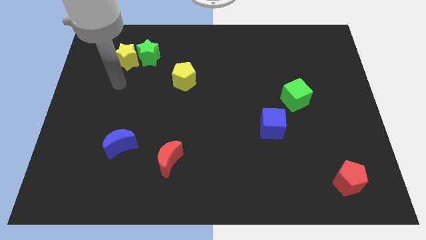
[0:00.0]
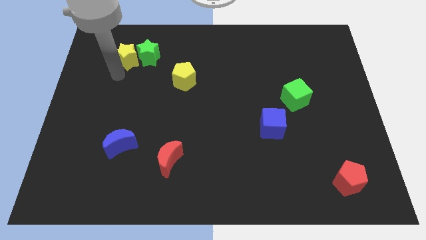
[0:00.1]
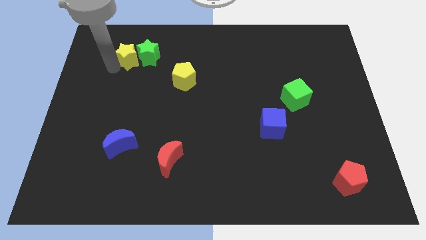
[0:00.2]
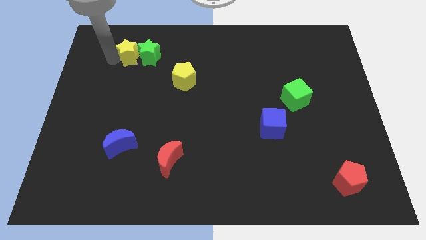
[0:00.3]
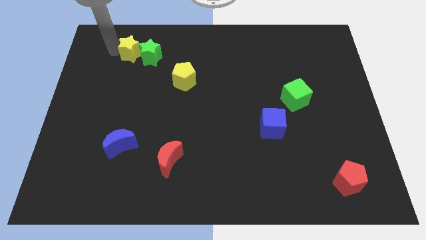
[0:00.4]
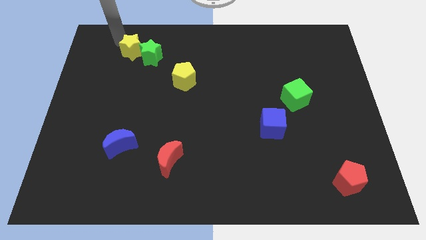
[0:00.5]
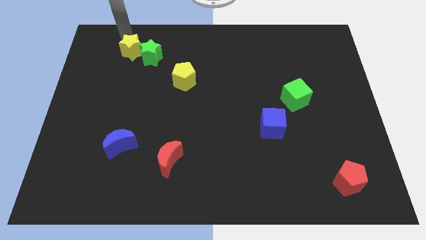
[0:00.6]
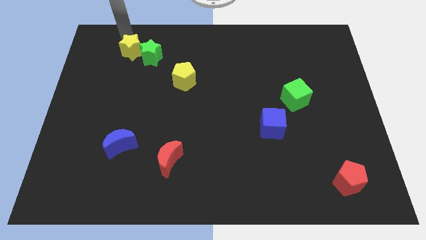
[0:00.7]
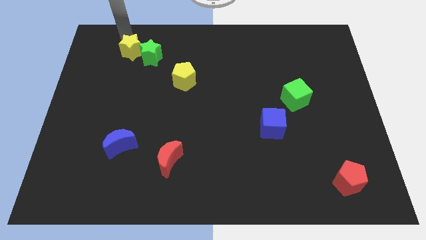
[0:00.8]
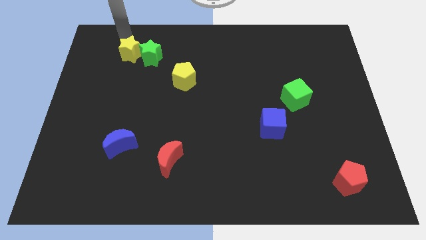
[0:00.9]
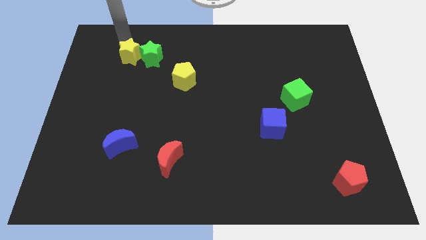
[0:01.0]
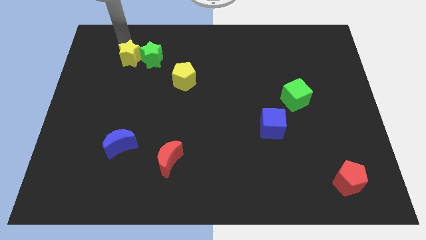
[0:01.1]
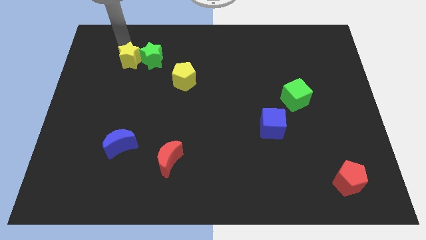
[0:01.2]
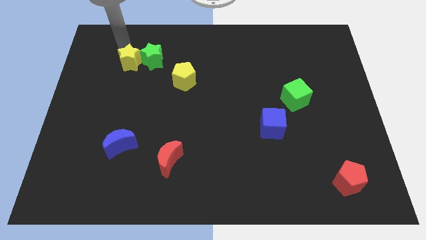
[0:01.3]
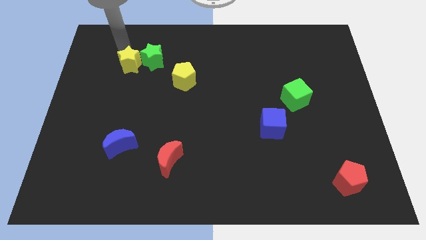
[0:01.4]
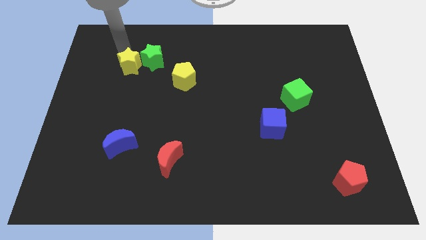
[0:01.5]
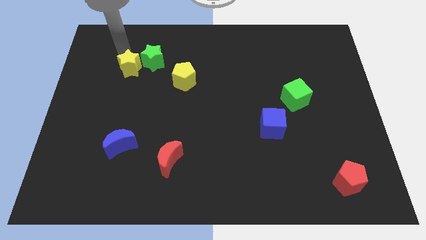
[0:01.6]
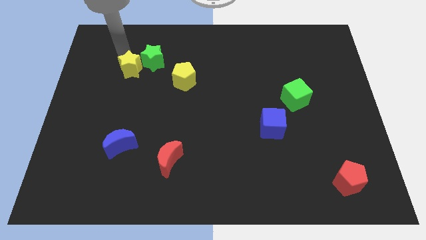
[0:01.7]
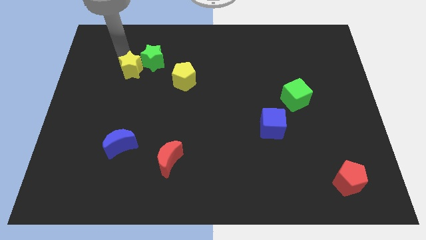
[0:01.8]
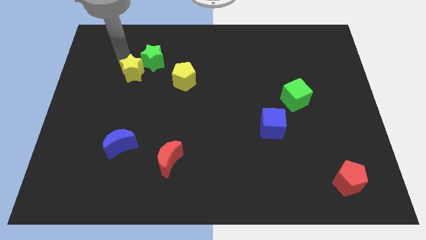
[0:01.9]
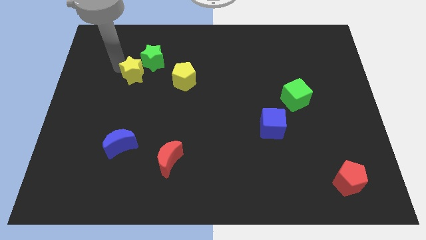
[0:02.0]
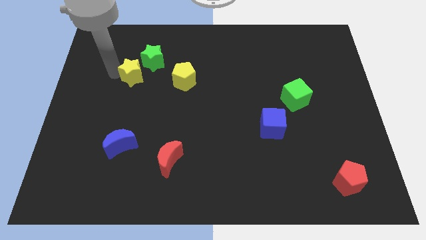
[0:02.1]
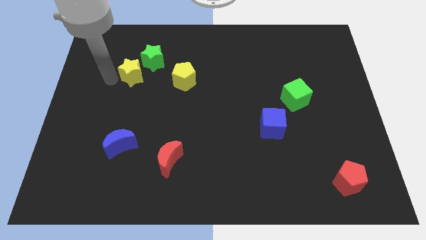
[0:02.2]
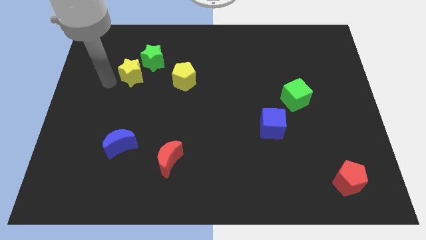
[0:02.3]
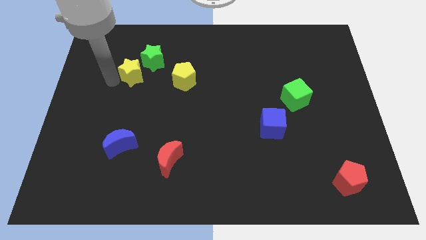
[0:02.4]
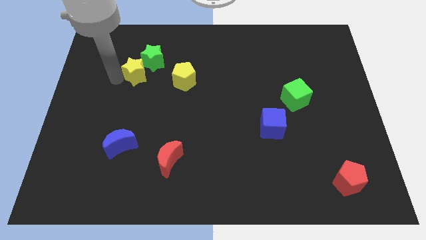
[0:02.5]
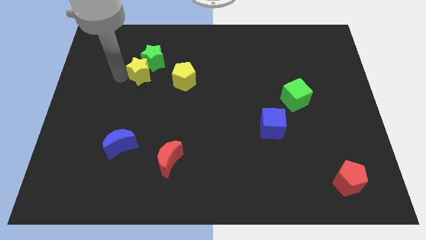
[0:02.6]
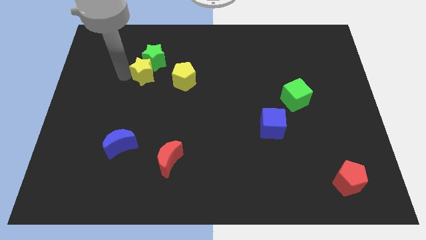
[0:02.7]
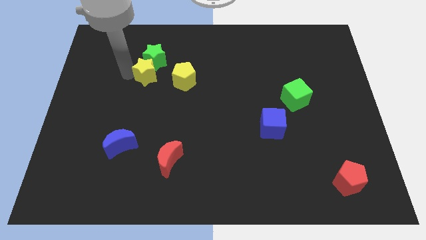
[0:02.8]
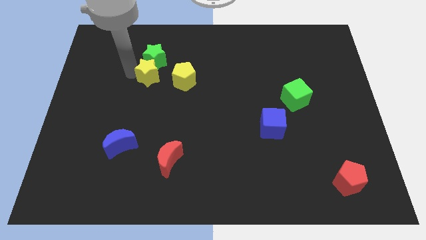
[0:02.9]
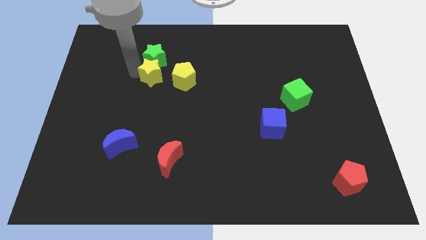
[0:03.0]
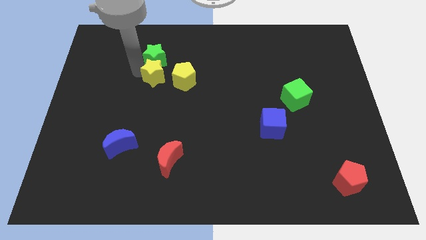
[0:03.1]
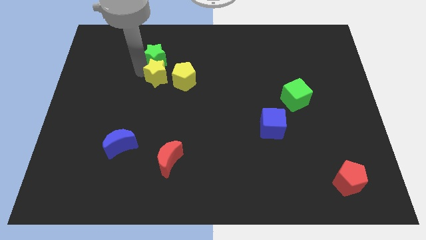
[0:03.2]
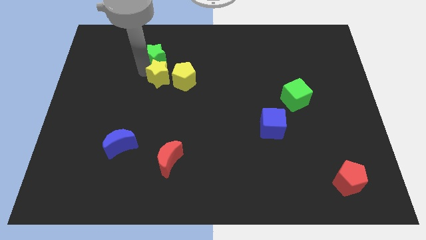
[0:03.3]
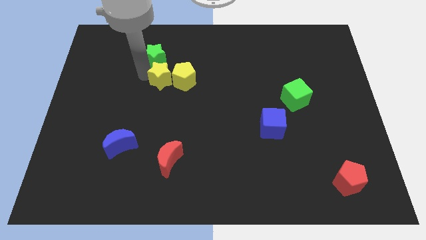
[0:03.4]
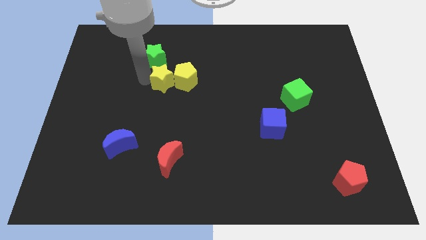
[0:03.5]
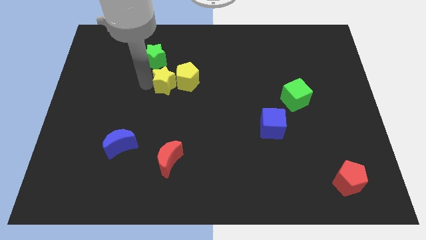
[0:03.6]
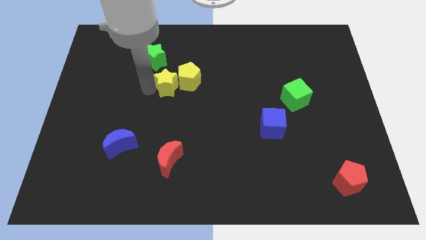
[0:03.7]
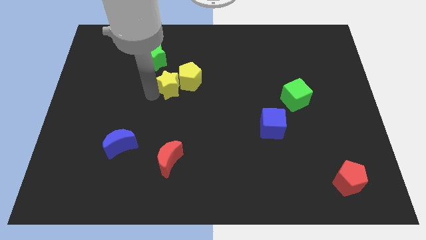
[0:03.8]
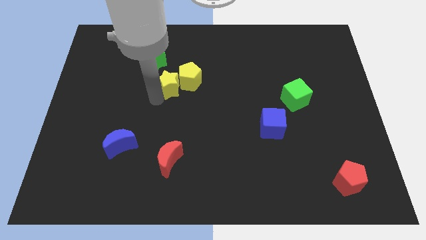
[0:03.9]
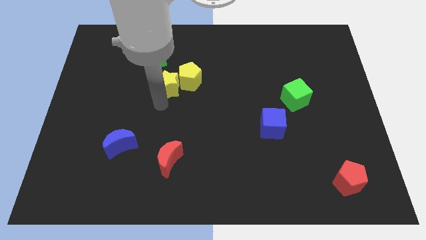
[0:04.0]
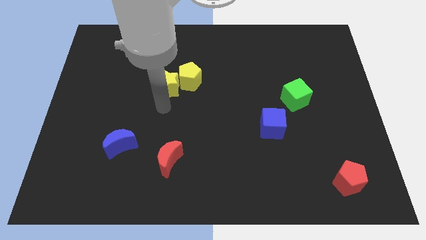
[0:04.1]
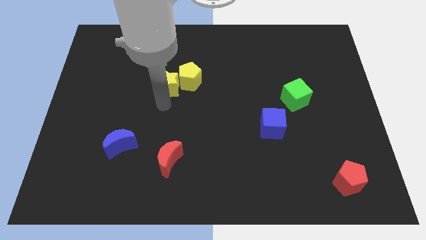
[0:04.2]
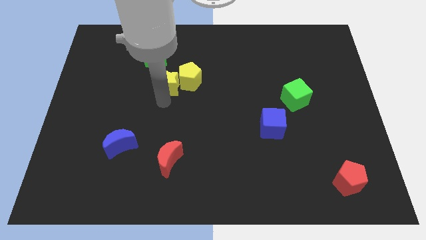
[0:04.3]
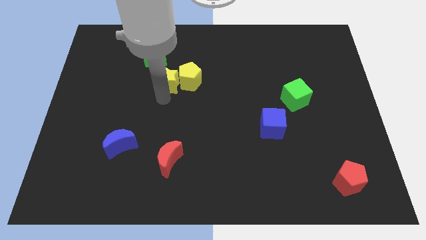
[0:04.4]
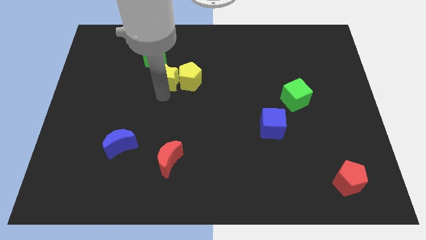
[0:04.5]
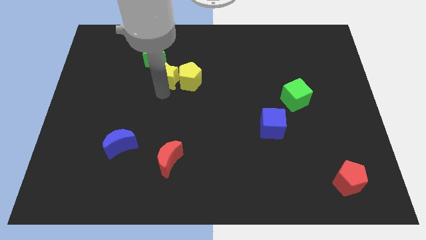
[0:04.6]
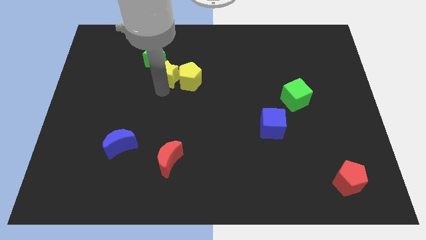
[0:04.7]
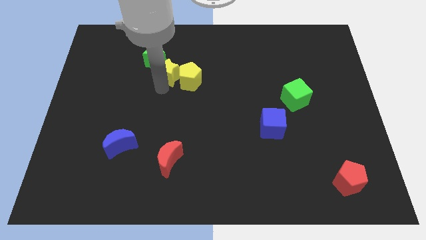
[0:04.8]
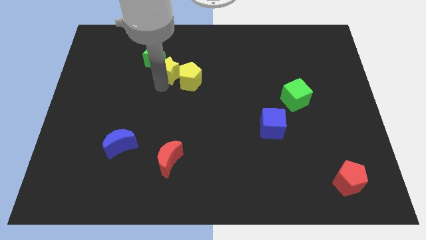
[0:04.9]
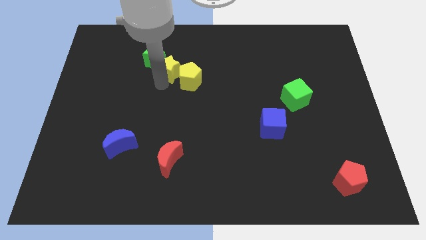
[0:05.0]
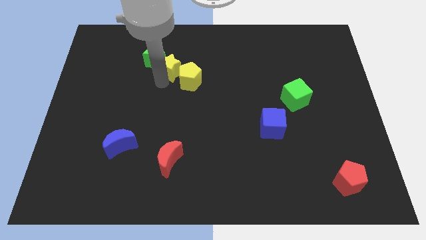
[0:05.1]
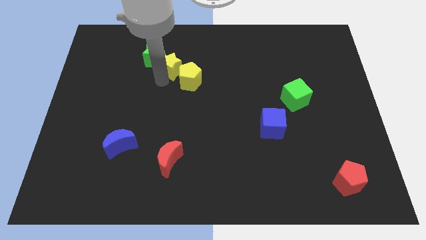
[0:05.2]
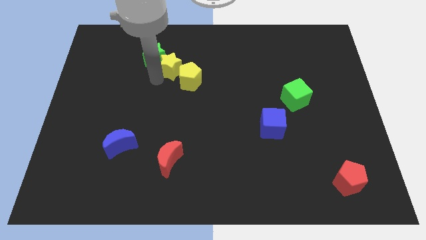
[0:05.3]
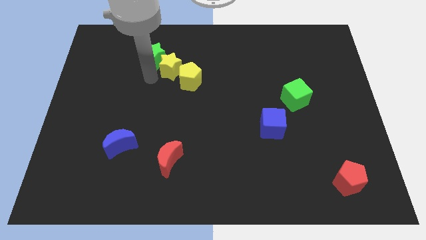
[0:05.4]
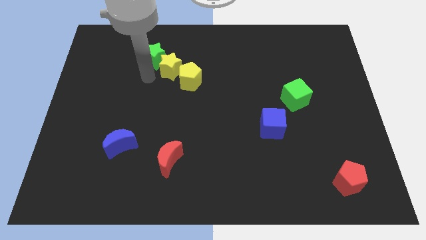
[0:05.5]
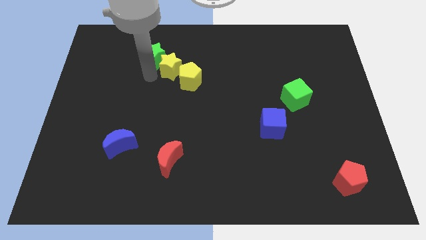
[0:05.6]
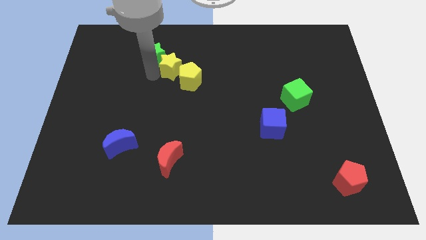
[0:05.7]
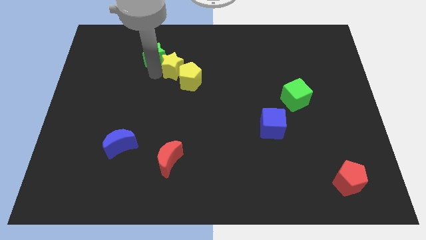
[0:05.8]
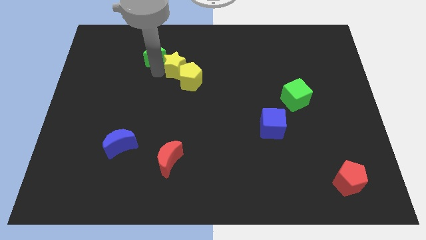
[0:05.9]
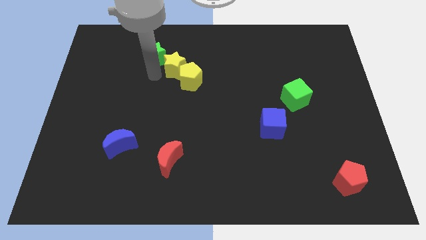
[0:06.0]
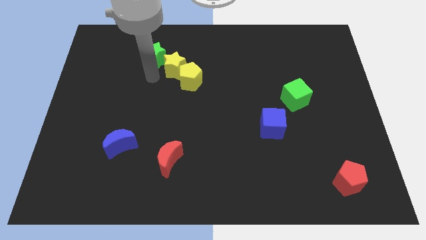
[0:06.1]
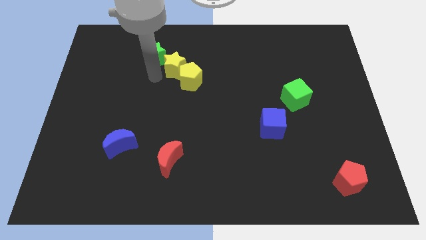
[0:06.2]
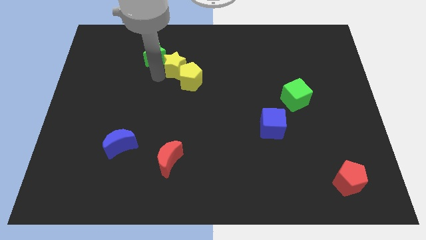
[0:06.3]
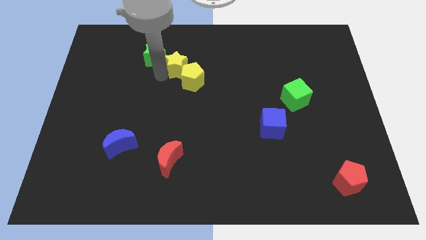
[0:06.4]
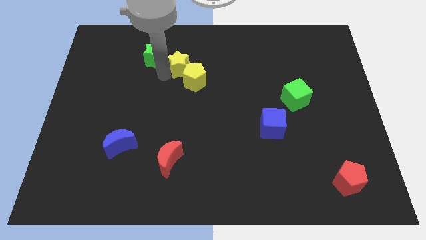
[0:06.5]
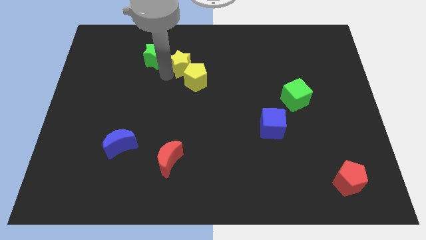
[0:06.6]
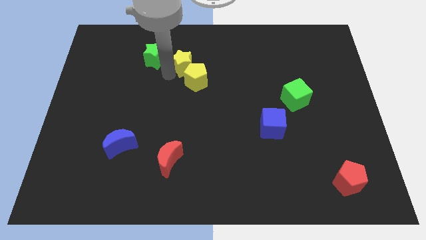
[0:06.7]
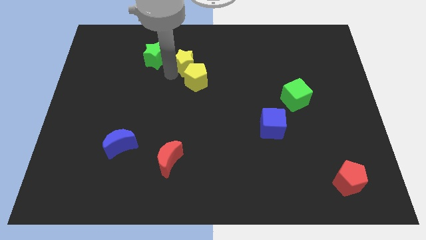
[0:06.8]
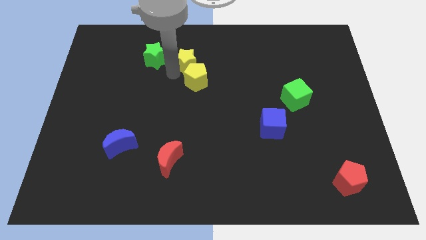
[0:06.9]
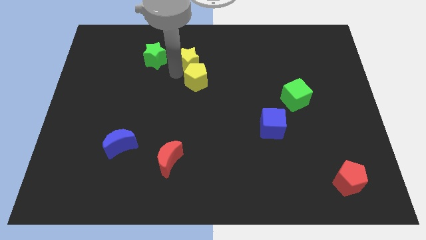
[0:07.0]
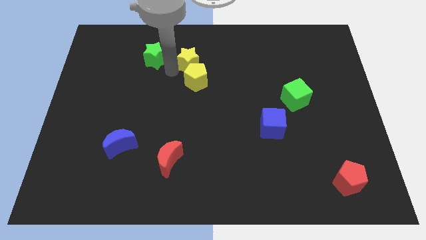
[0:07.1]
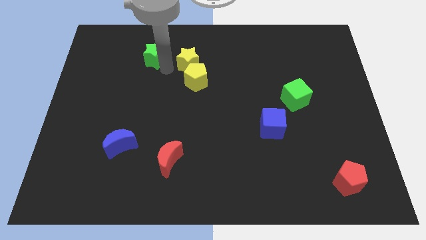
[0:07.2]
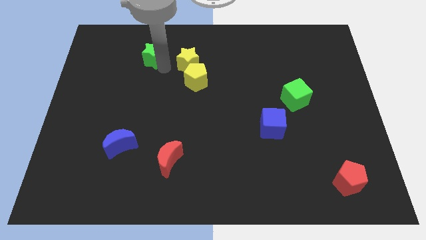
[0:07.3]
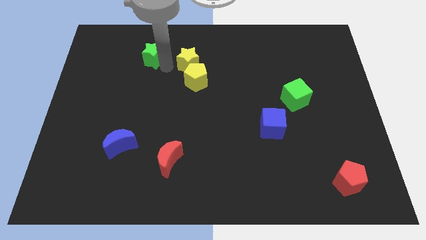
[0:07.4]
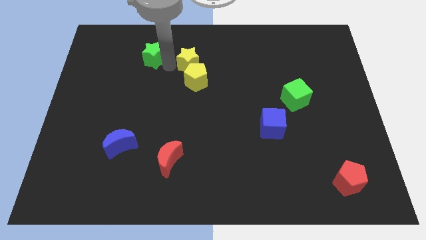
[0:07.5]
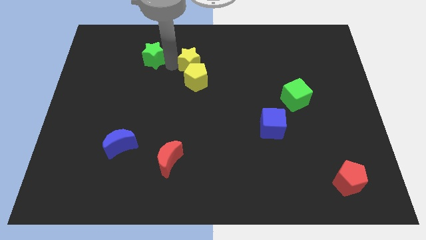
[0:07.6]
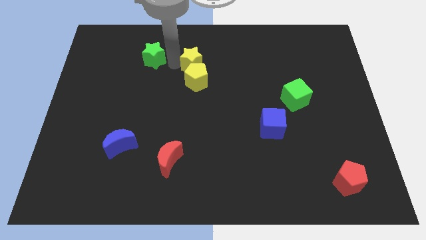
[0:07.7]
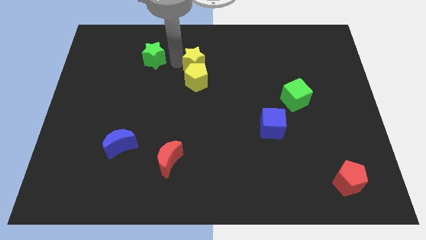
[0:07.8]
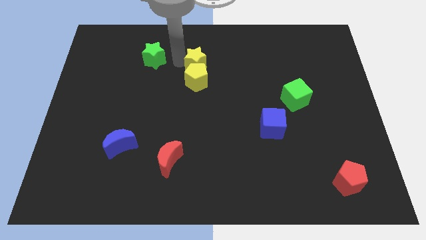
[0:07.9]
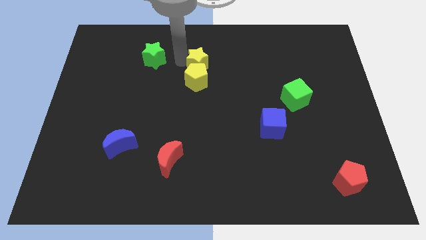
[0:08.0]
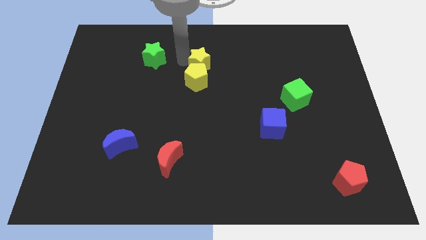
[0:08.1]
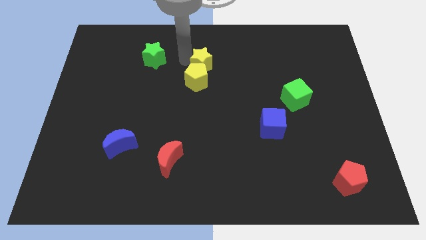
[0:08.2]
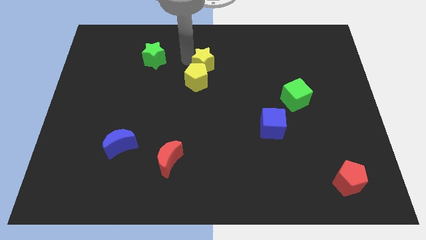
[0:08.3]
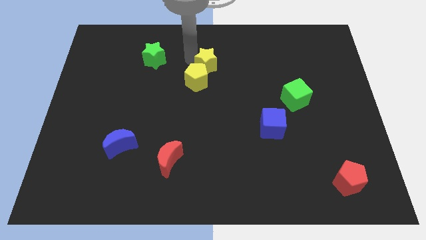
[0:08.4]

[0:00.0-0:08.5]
push the yellow star to the right

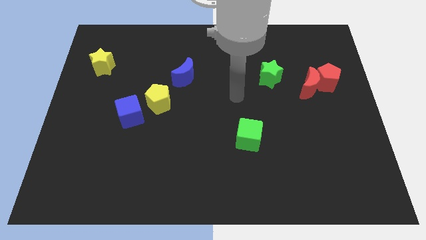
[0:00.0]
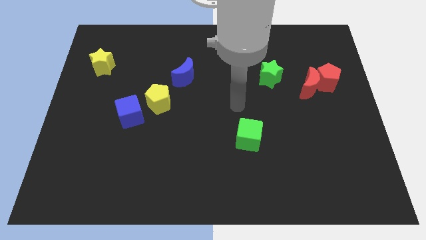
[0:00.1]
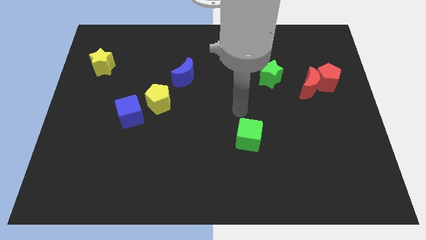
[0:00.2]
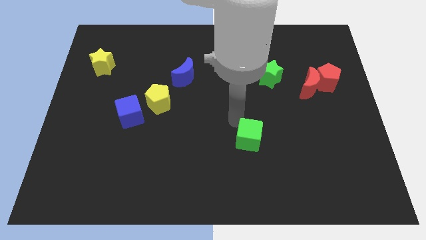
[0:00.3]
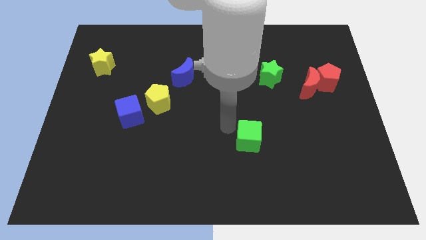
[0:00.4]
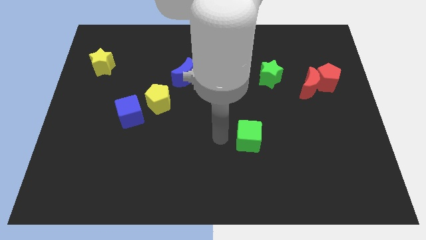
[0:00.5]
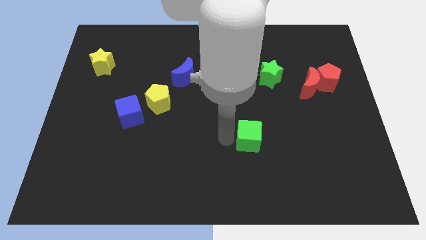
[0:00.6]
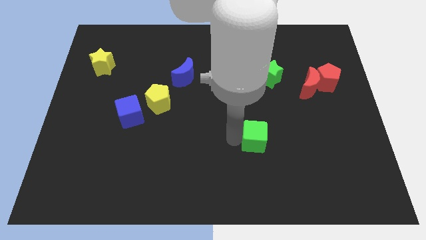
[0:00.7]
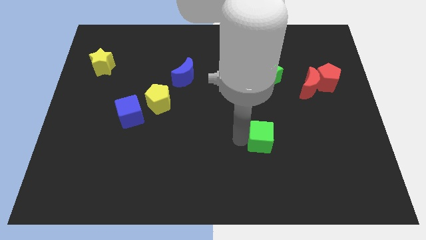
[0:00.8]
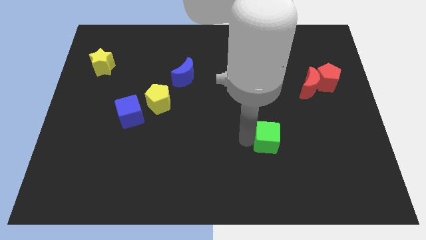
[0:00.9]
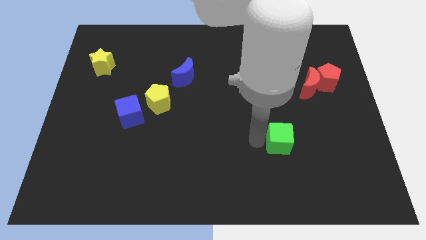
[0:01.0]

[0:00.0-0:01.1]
push the green cube to the right a little
